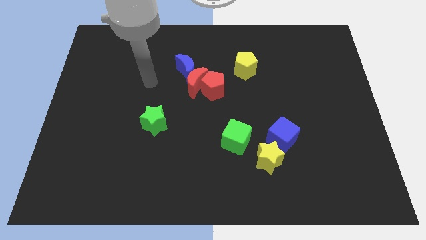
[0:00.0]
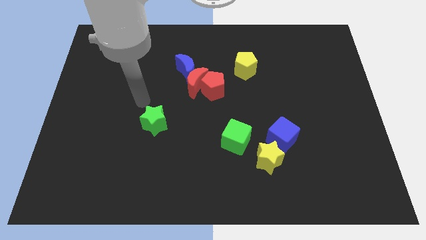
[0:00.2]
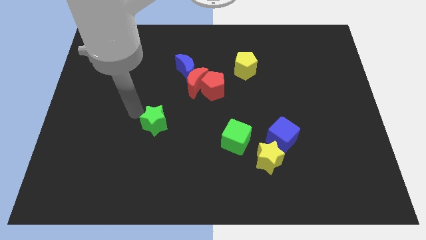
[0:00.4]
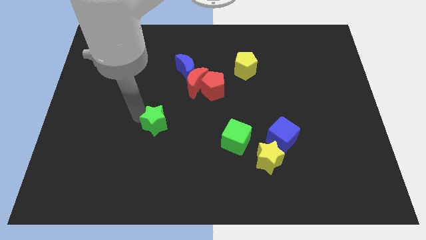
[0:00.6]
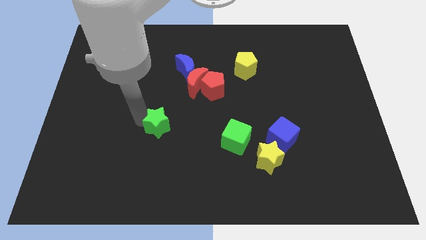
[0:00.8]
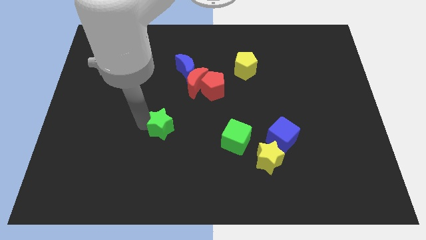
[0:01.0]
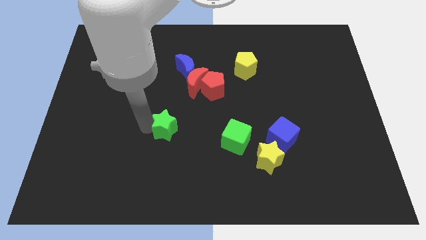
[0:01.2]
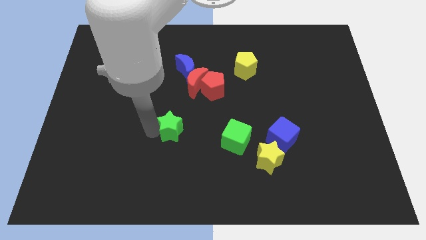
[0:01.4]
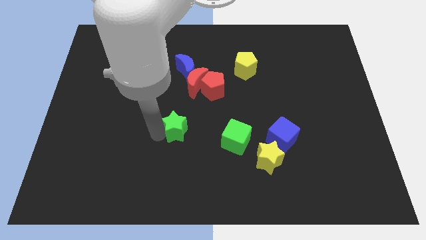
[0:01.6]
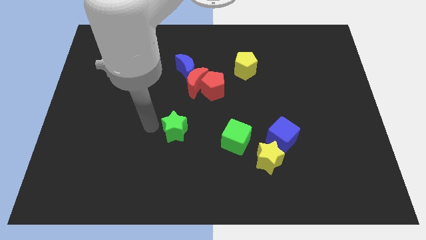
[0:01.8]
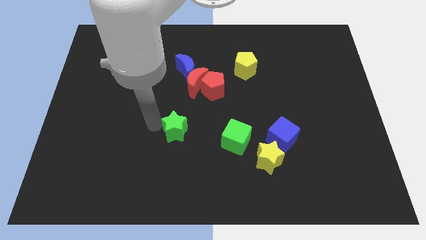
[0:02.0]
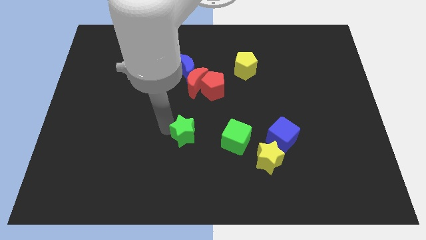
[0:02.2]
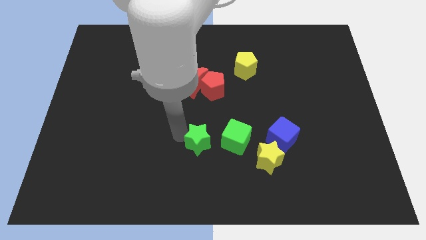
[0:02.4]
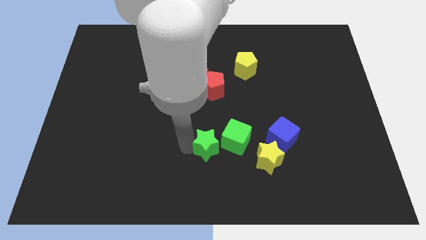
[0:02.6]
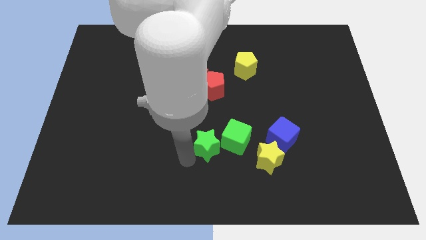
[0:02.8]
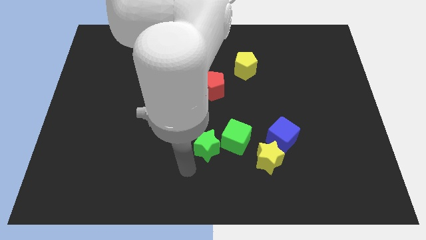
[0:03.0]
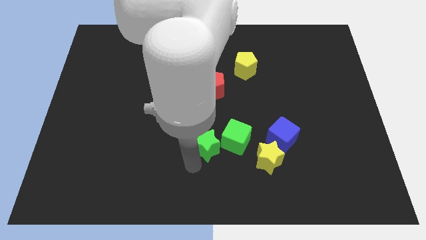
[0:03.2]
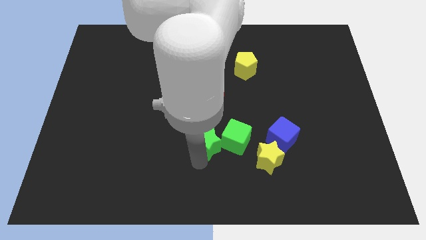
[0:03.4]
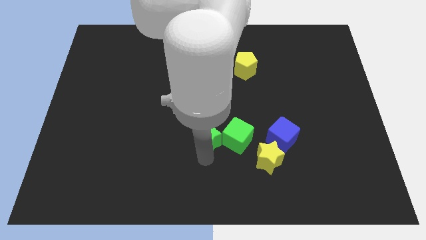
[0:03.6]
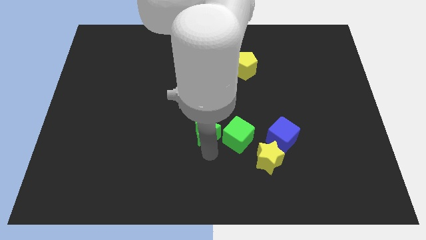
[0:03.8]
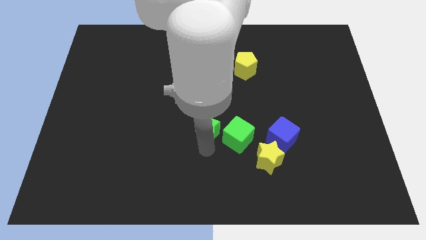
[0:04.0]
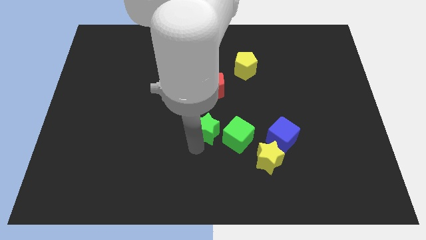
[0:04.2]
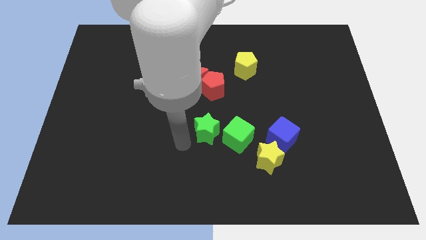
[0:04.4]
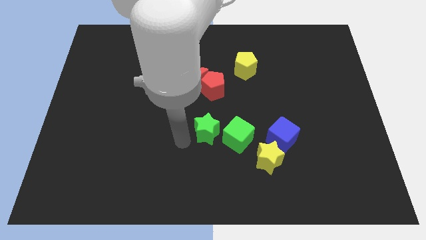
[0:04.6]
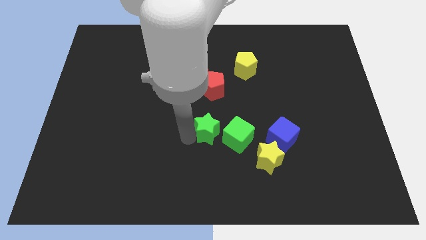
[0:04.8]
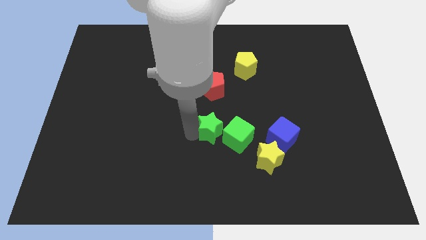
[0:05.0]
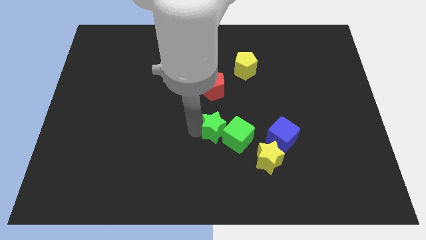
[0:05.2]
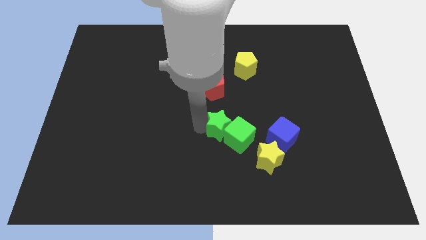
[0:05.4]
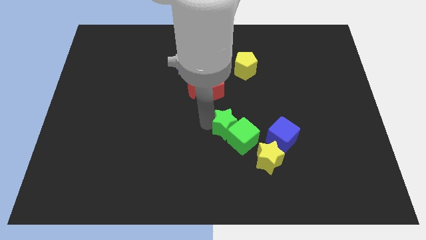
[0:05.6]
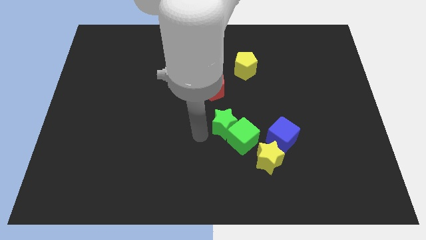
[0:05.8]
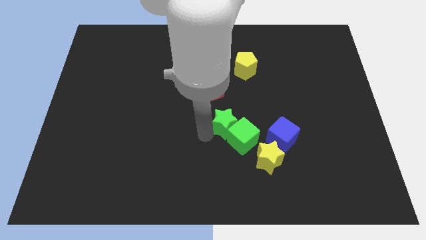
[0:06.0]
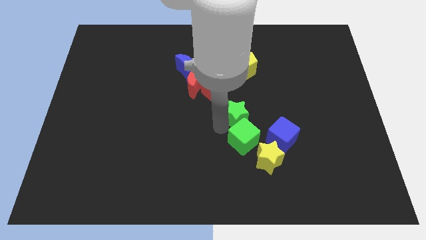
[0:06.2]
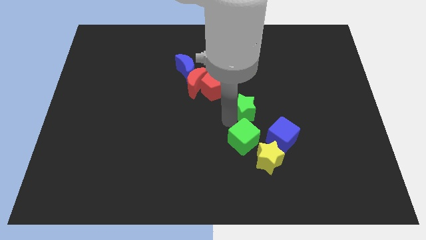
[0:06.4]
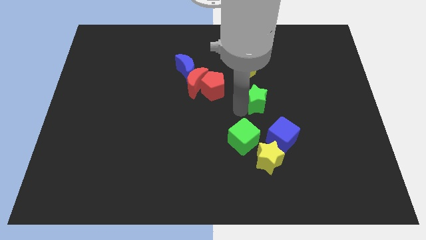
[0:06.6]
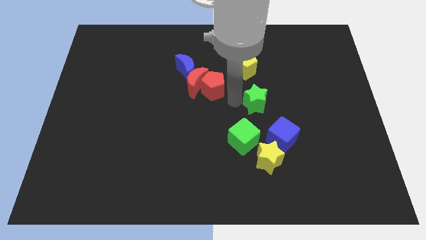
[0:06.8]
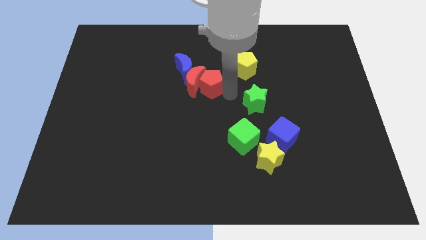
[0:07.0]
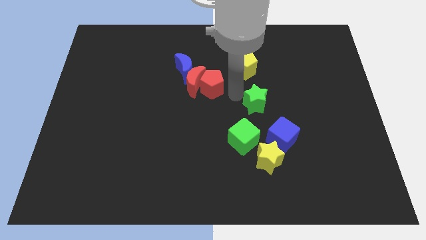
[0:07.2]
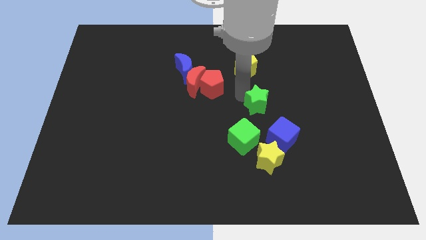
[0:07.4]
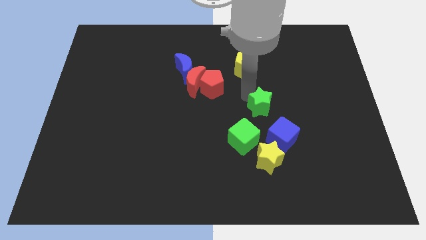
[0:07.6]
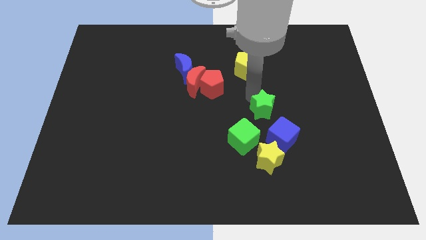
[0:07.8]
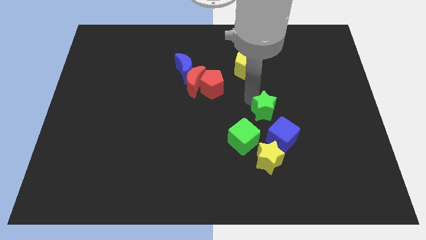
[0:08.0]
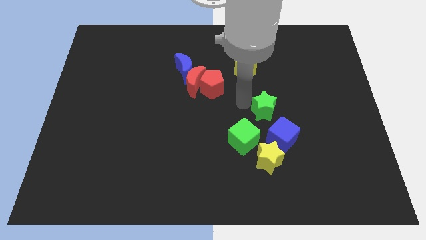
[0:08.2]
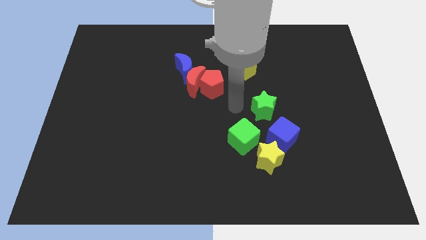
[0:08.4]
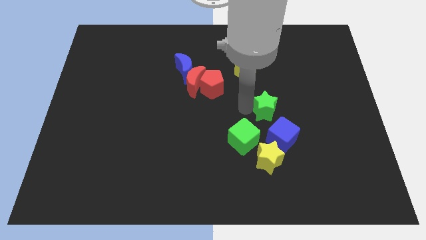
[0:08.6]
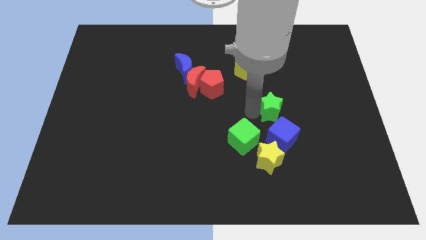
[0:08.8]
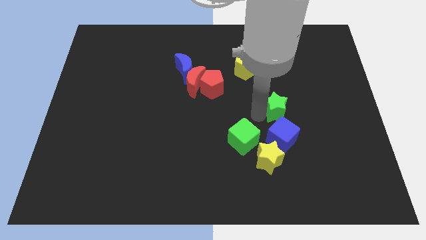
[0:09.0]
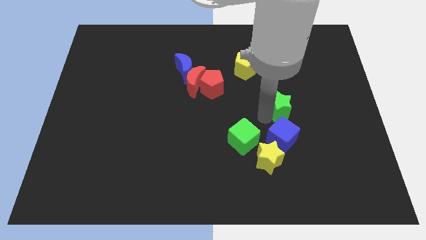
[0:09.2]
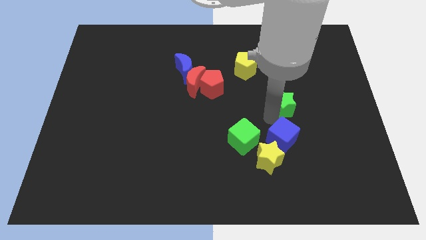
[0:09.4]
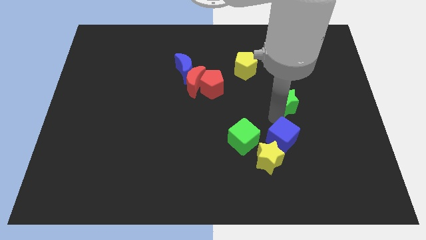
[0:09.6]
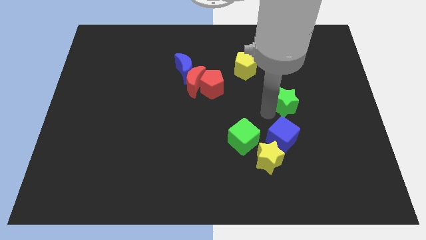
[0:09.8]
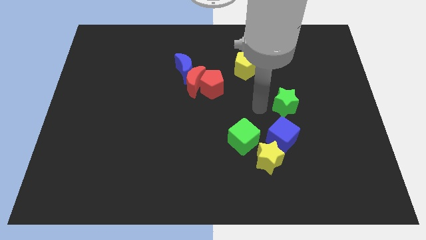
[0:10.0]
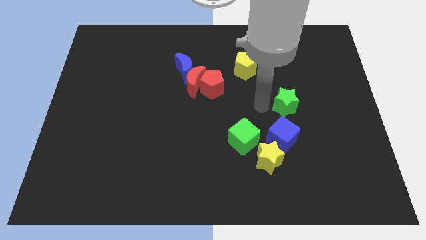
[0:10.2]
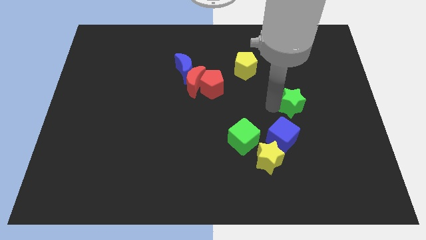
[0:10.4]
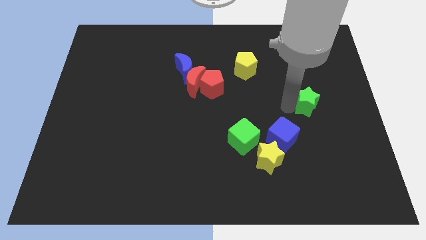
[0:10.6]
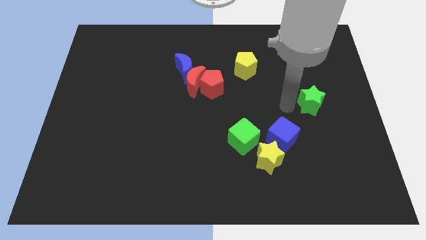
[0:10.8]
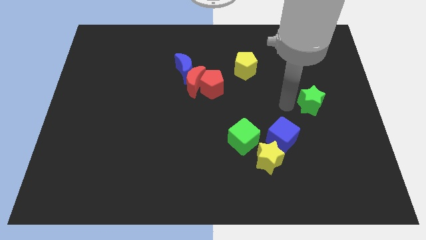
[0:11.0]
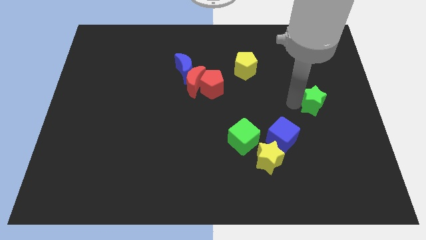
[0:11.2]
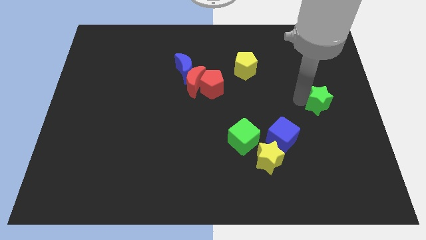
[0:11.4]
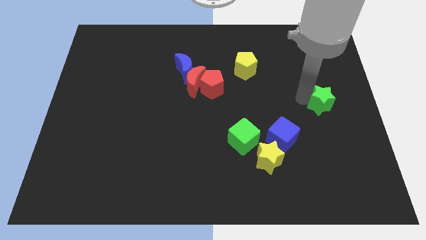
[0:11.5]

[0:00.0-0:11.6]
slide the green star to the right side
